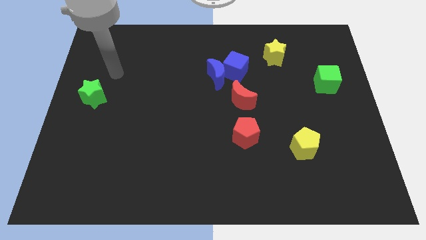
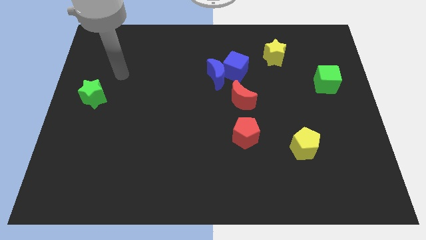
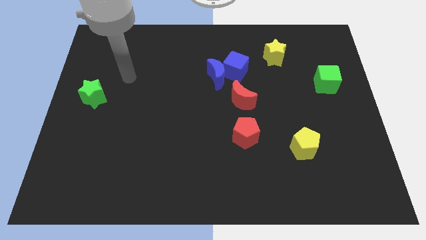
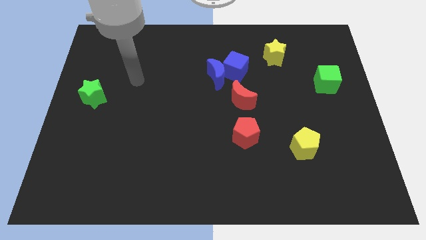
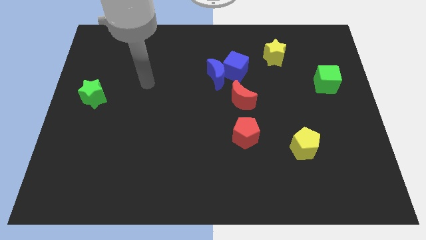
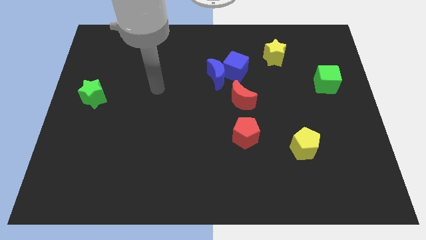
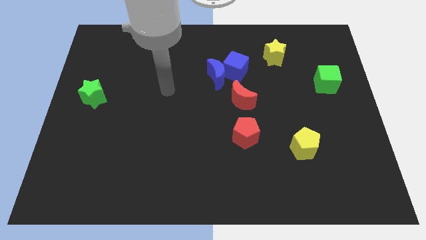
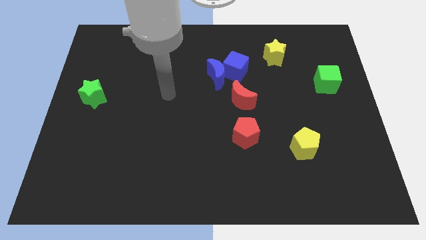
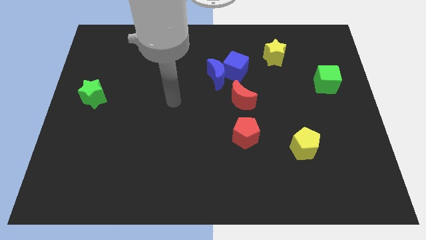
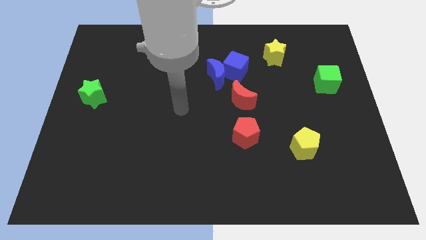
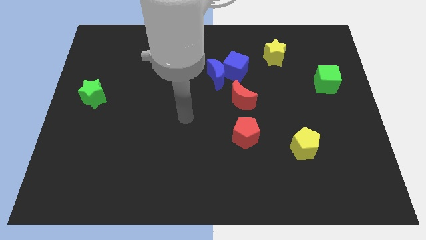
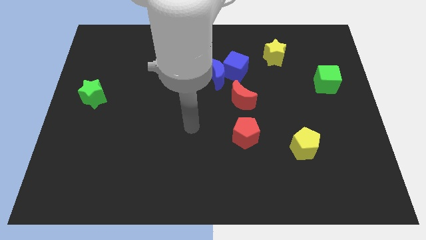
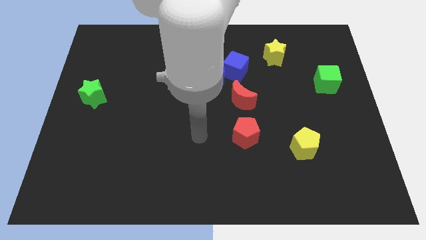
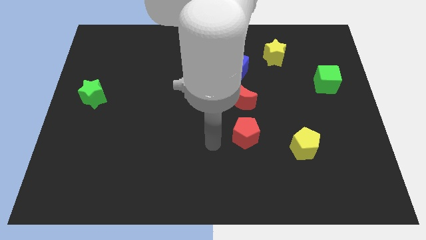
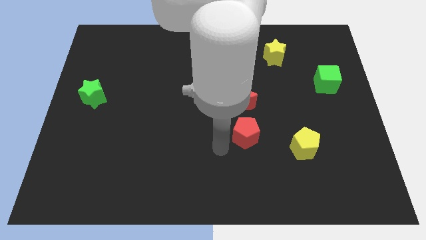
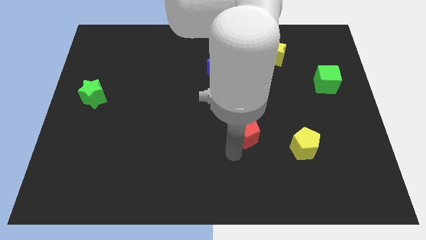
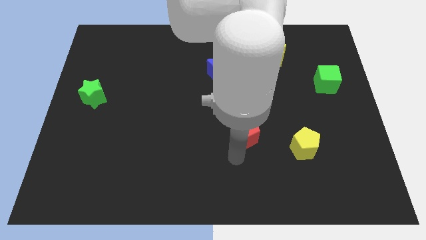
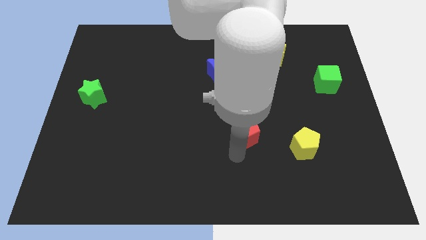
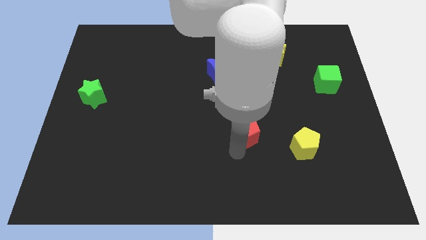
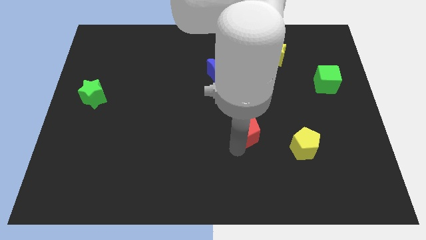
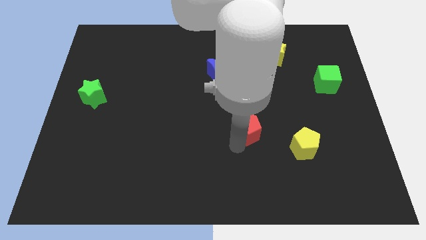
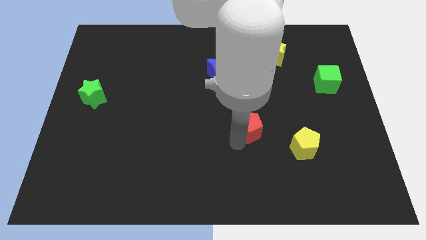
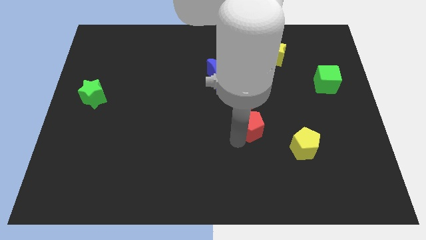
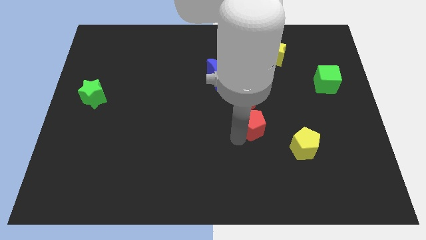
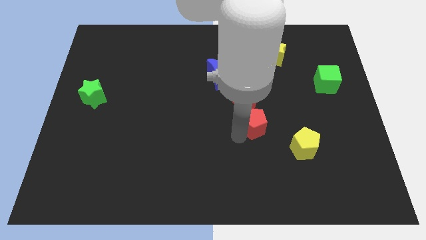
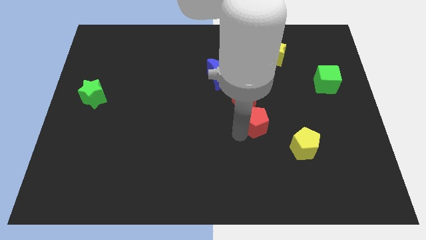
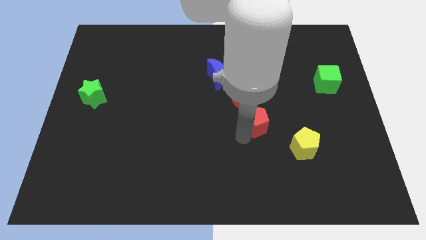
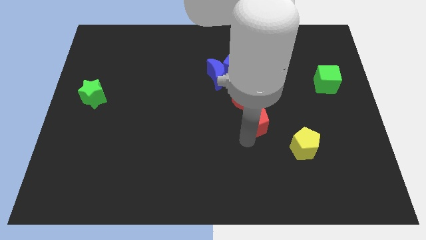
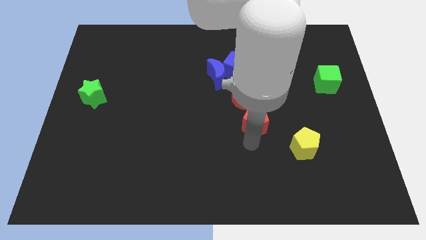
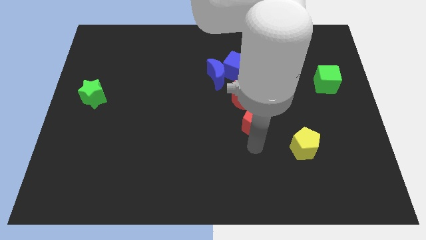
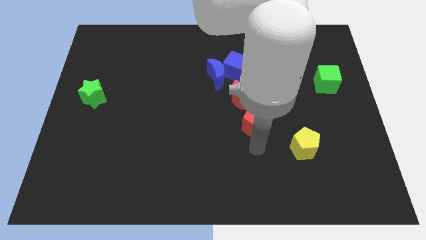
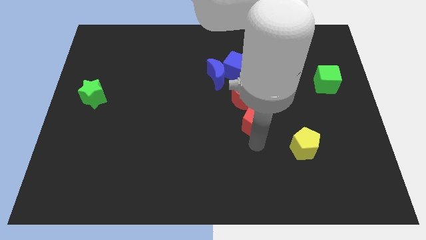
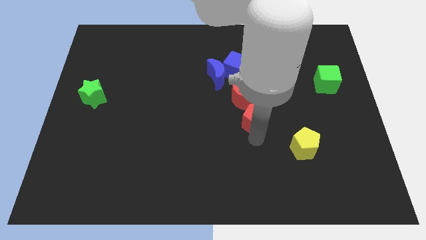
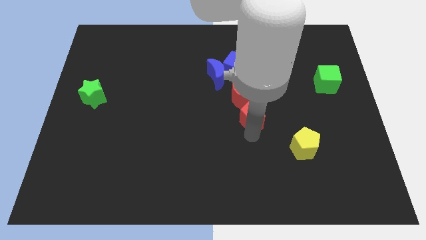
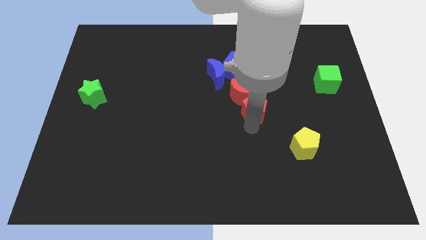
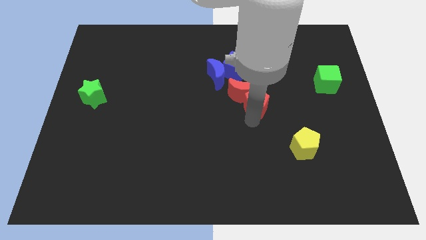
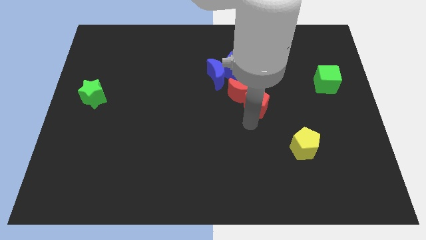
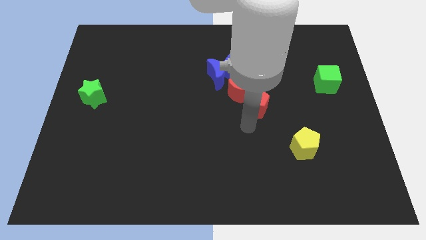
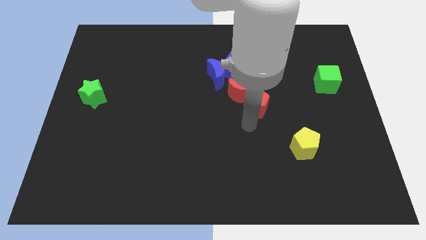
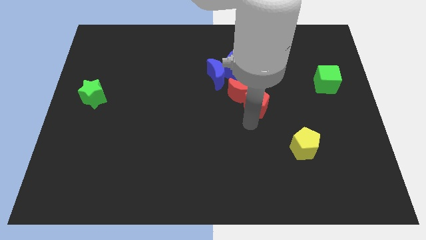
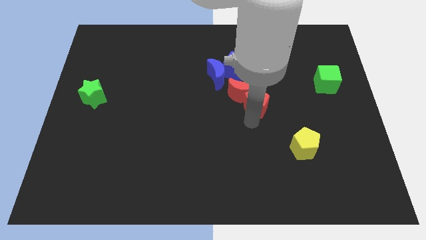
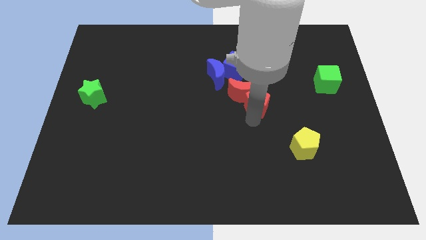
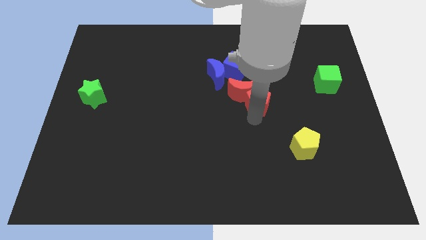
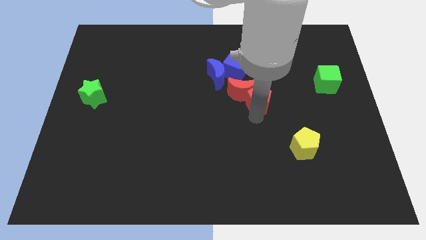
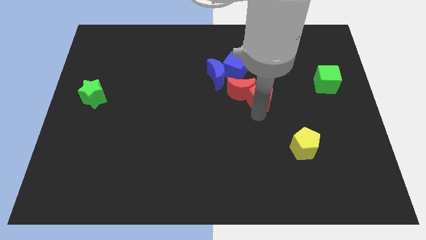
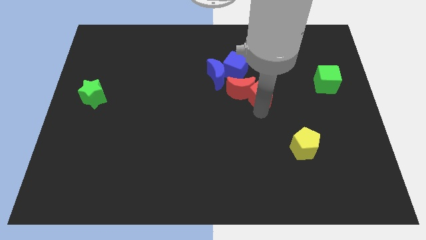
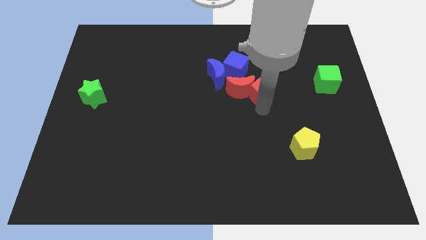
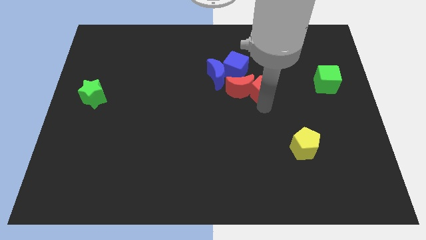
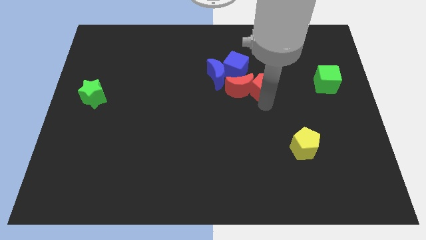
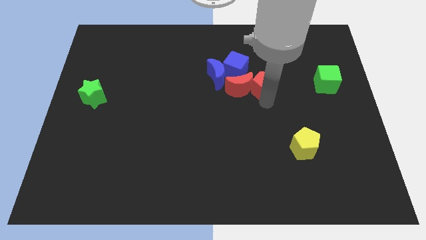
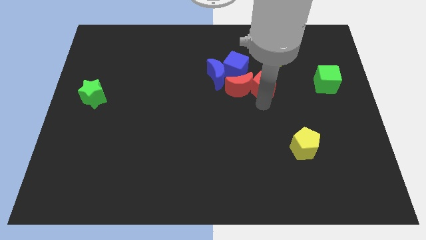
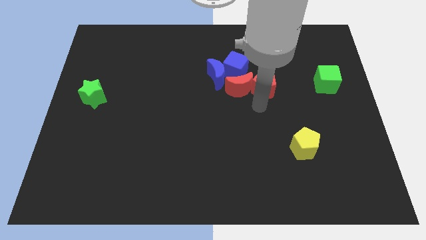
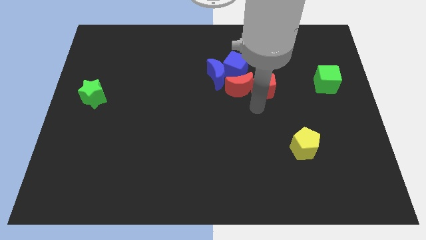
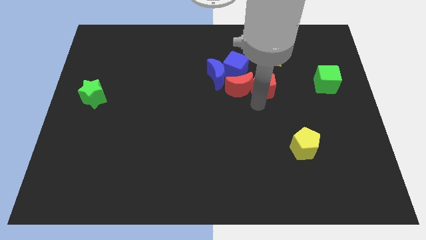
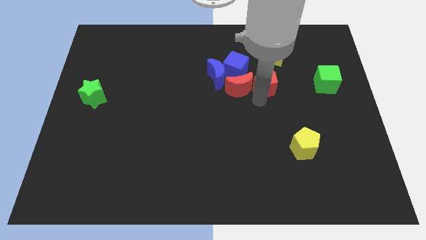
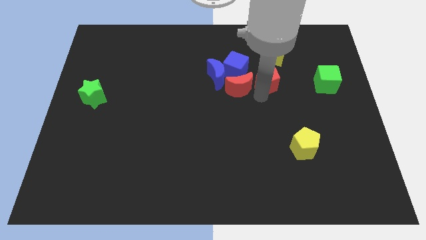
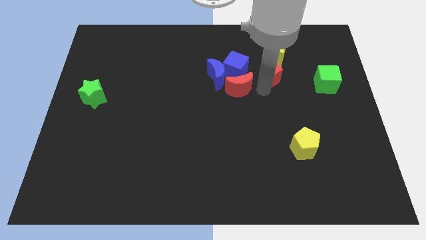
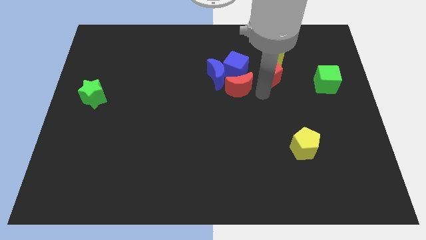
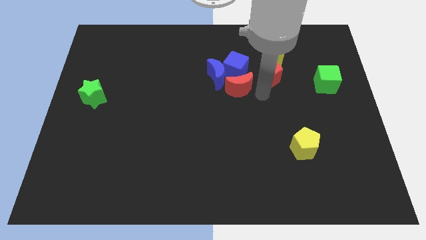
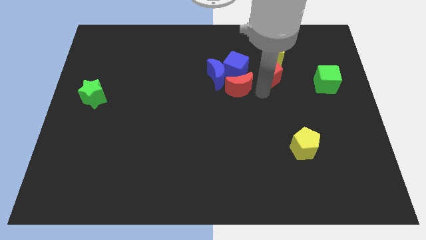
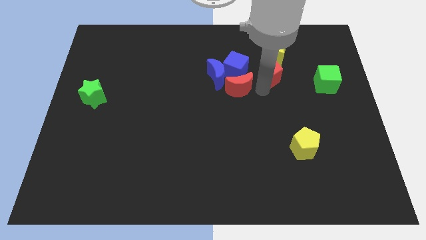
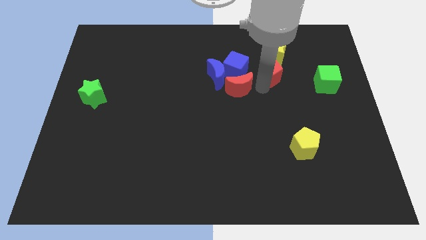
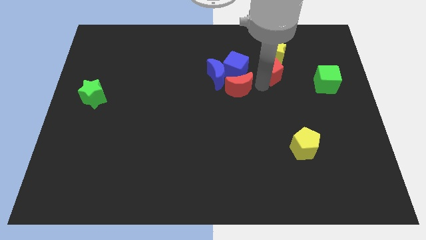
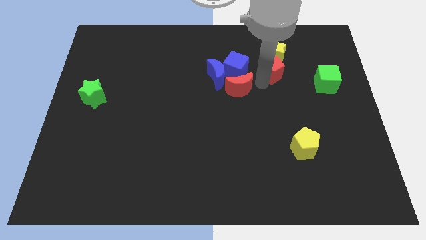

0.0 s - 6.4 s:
push the red pentagon close to the yellow star

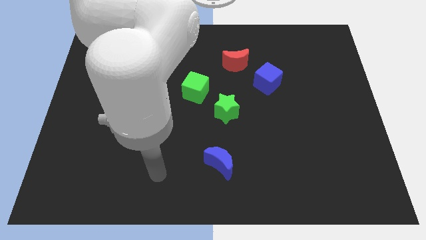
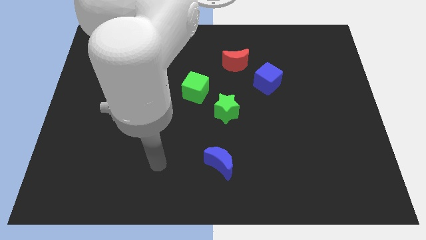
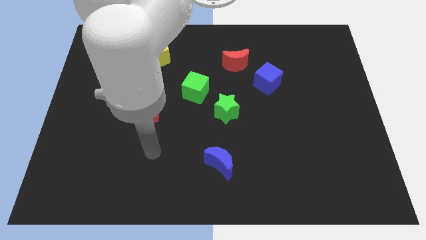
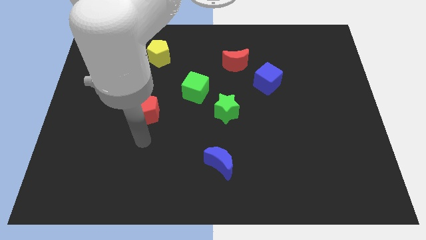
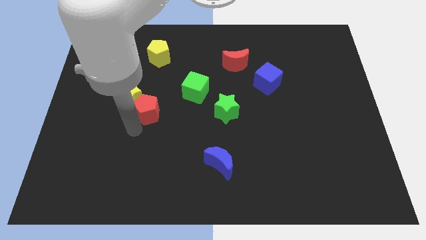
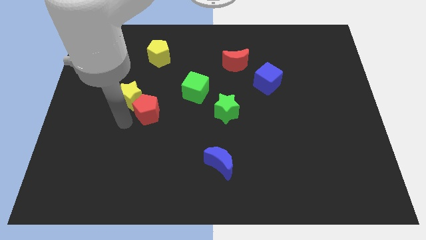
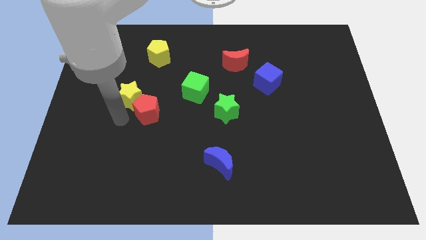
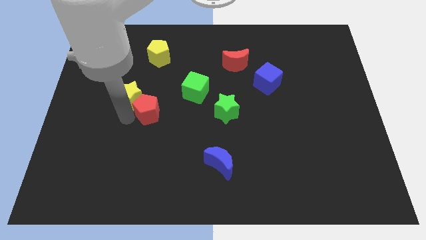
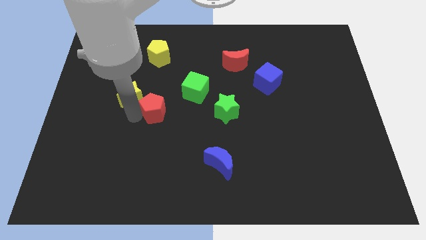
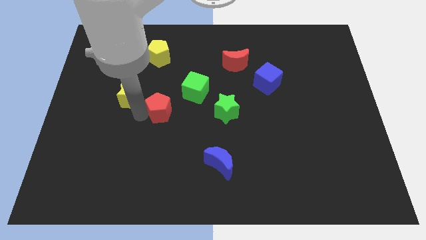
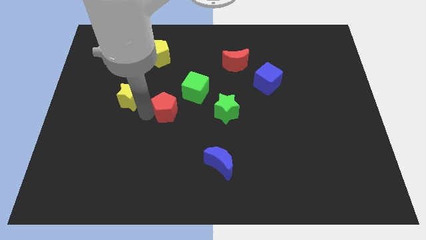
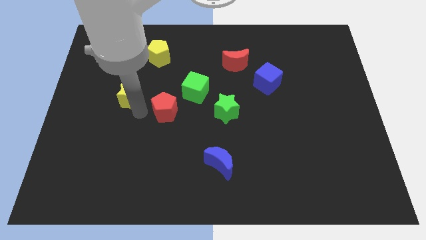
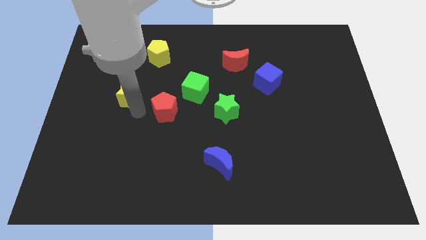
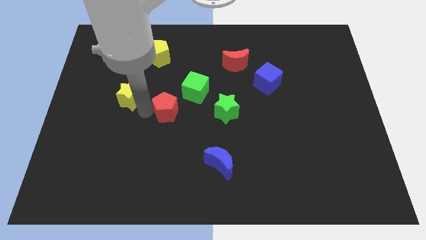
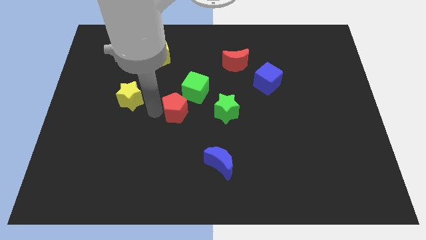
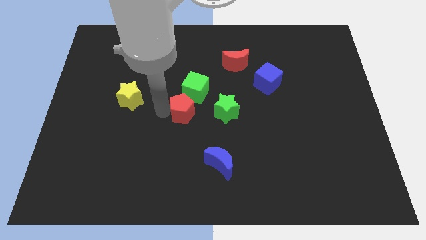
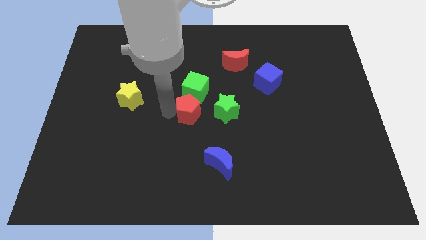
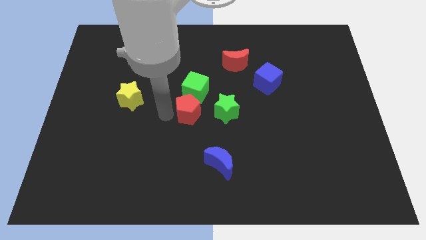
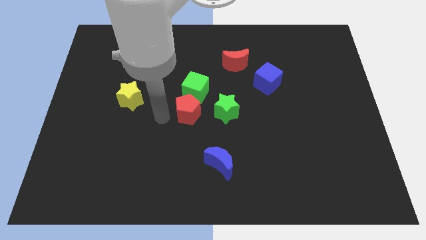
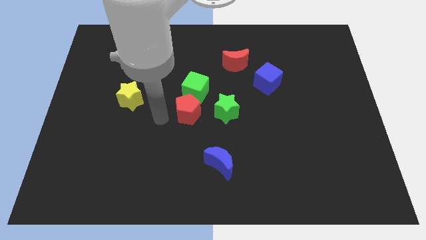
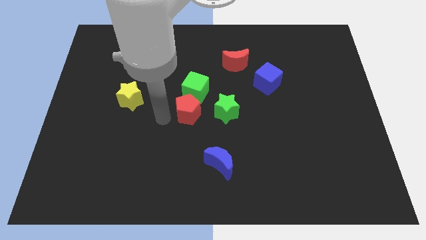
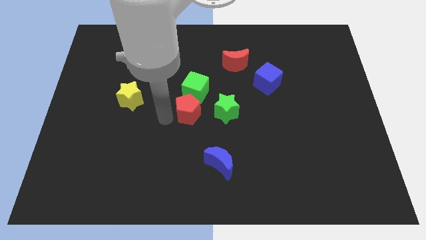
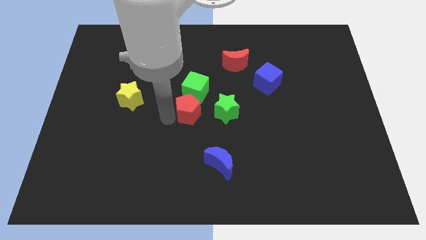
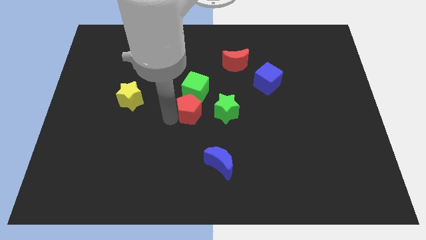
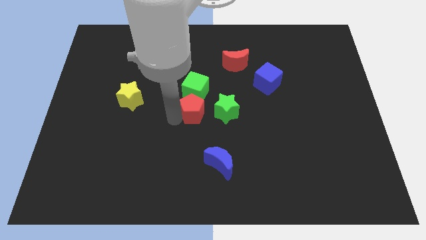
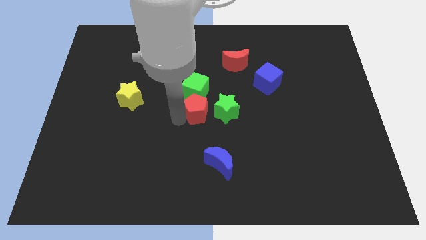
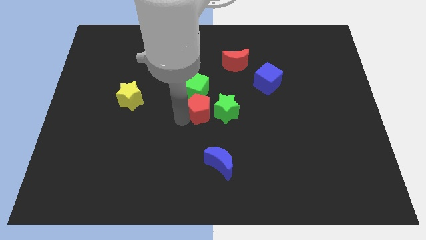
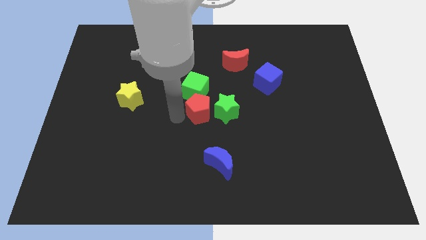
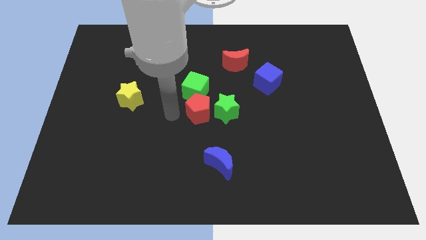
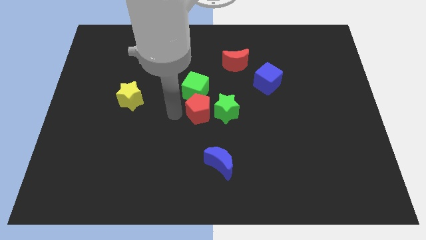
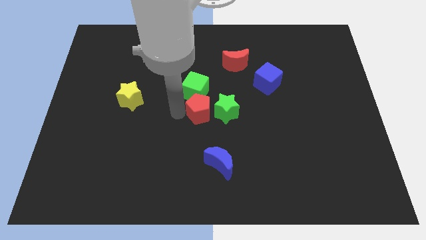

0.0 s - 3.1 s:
push the red pentagon close to the green star
